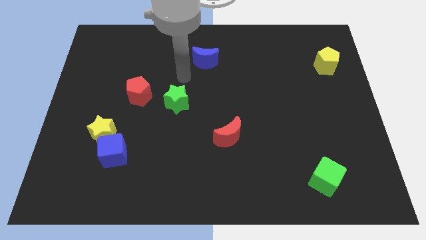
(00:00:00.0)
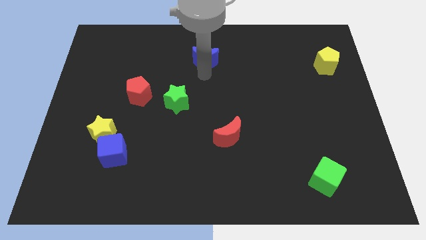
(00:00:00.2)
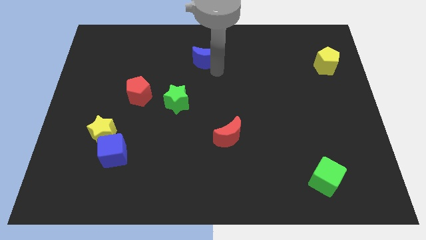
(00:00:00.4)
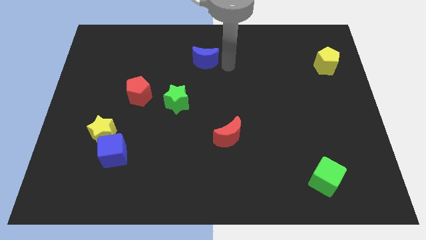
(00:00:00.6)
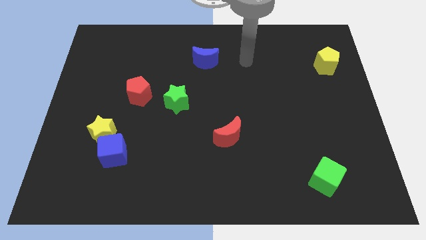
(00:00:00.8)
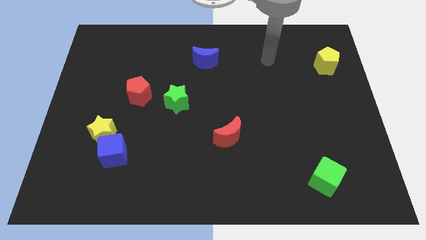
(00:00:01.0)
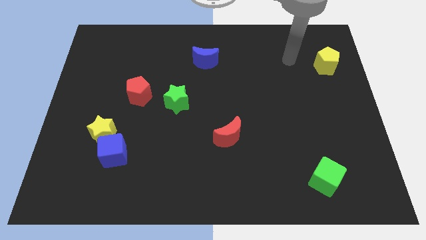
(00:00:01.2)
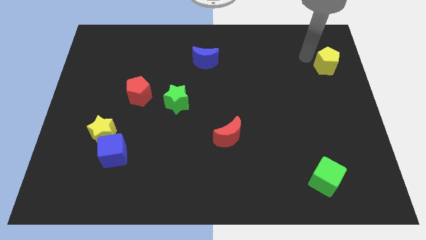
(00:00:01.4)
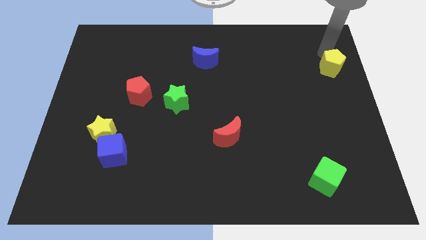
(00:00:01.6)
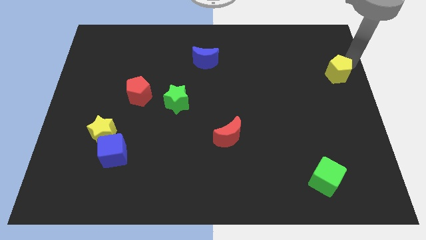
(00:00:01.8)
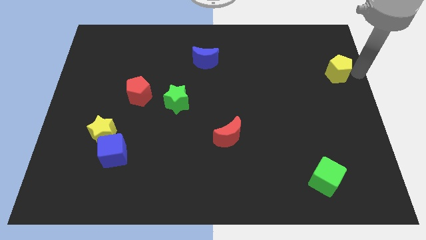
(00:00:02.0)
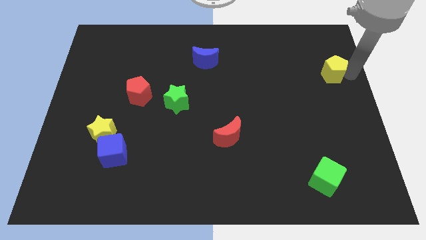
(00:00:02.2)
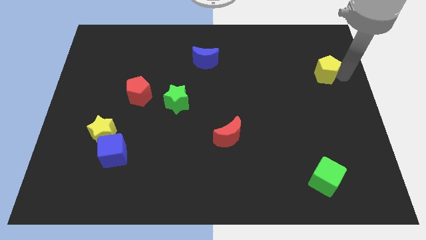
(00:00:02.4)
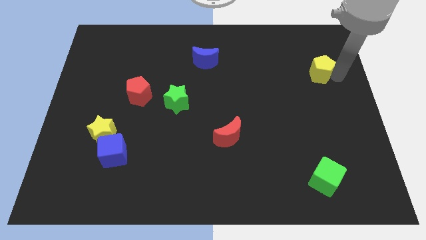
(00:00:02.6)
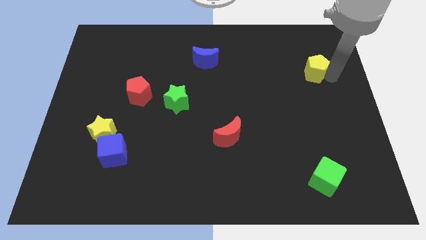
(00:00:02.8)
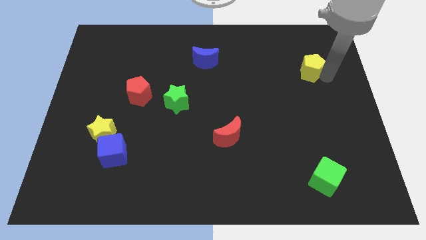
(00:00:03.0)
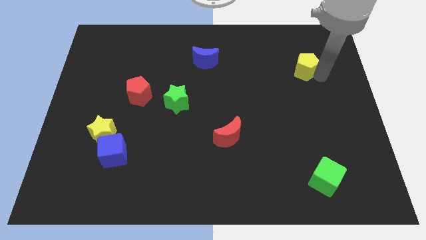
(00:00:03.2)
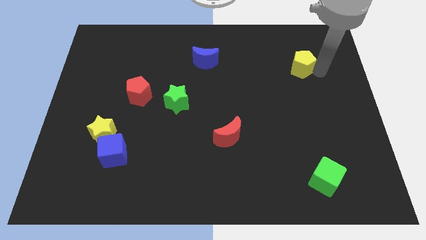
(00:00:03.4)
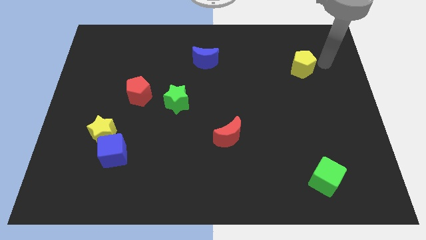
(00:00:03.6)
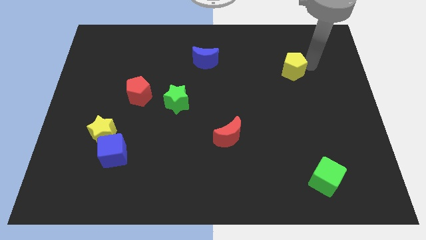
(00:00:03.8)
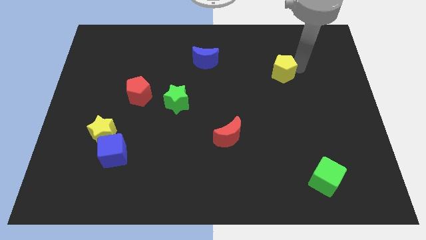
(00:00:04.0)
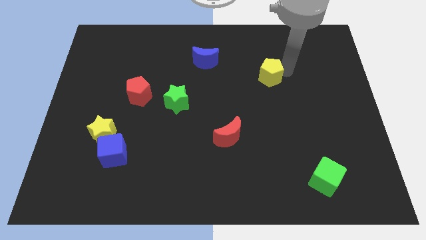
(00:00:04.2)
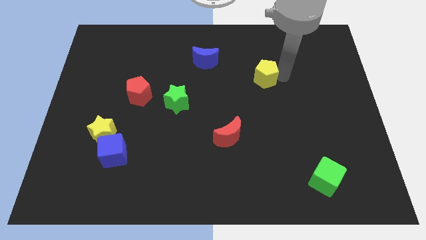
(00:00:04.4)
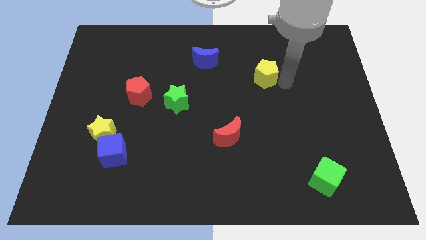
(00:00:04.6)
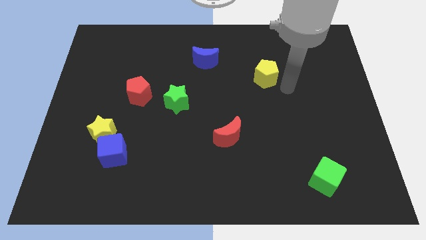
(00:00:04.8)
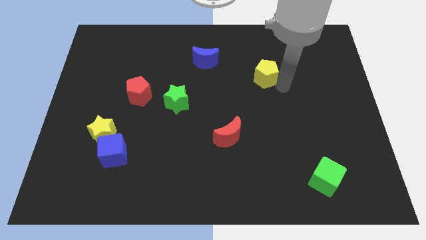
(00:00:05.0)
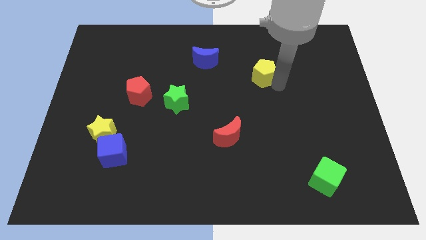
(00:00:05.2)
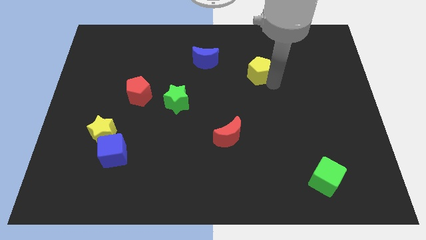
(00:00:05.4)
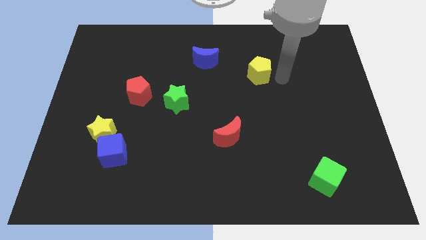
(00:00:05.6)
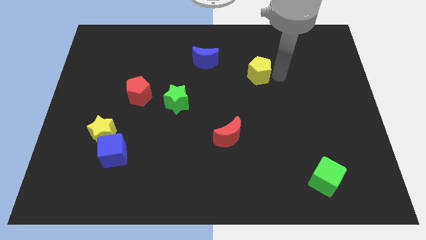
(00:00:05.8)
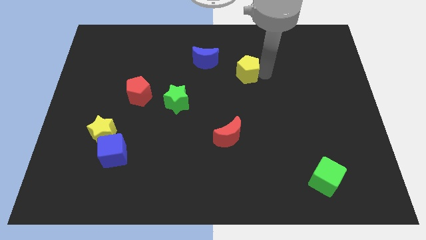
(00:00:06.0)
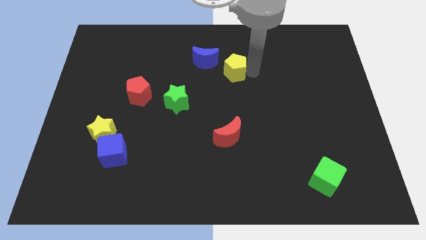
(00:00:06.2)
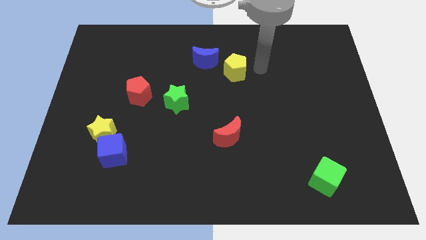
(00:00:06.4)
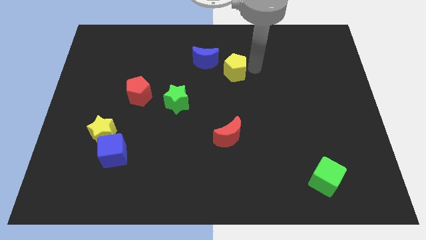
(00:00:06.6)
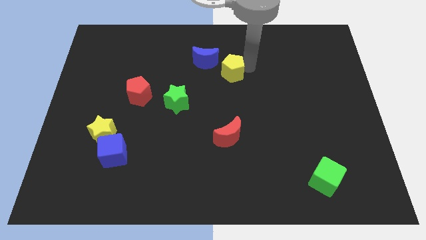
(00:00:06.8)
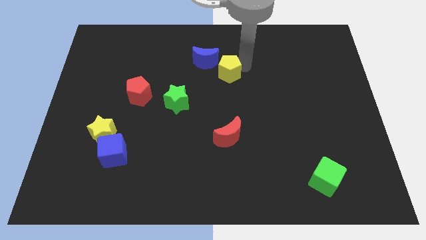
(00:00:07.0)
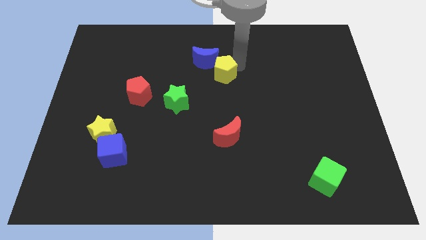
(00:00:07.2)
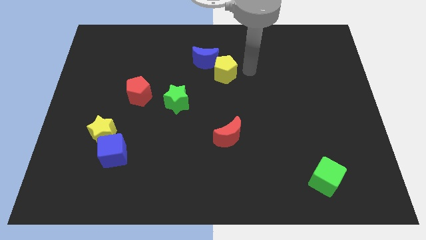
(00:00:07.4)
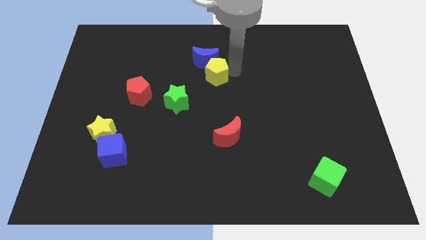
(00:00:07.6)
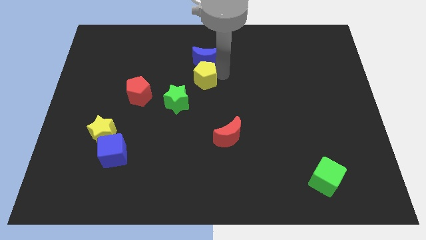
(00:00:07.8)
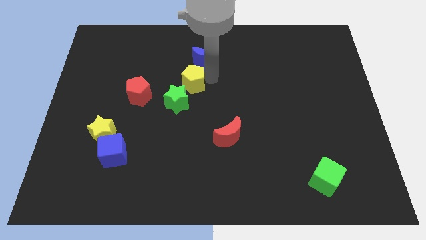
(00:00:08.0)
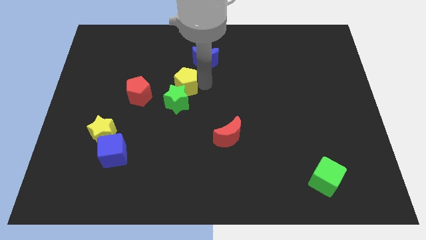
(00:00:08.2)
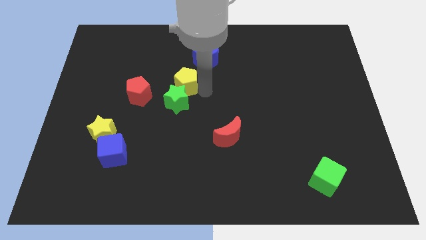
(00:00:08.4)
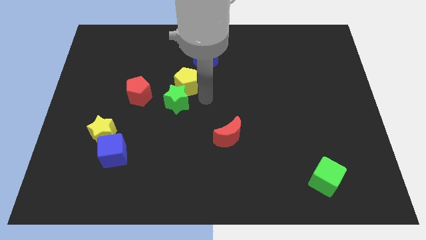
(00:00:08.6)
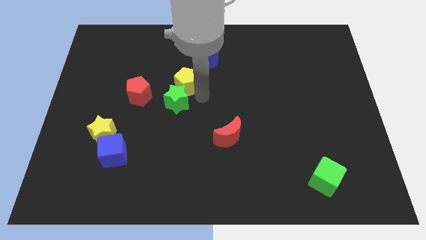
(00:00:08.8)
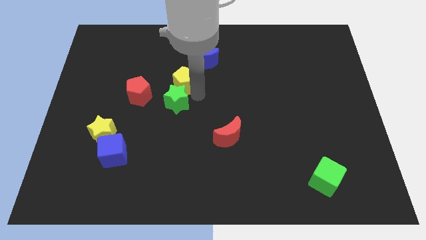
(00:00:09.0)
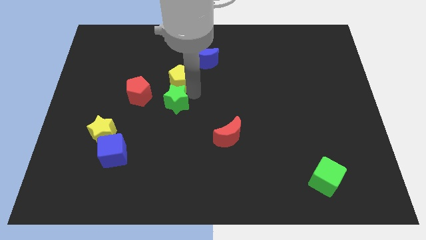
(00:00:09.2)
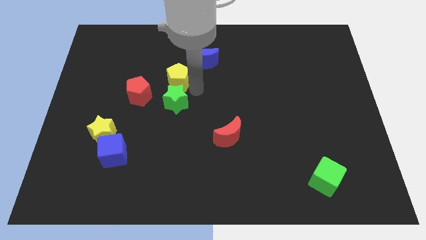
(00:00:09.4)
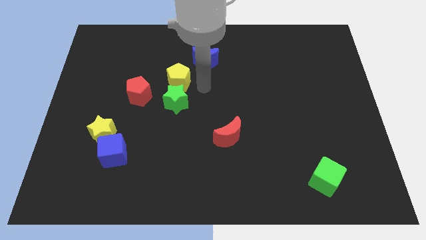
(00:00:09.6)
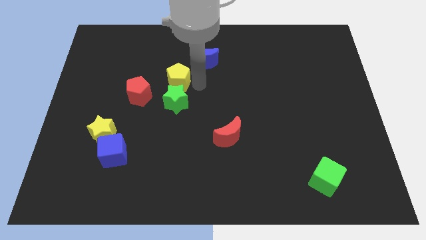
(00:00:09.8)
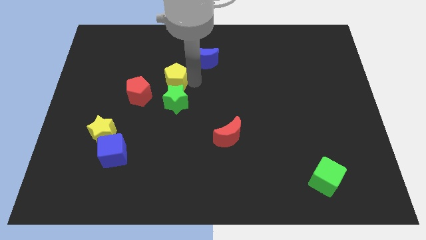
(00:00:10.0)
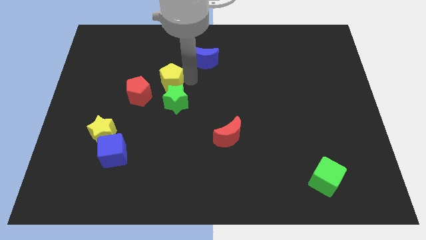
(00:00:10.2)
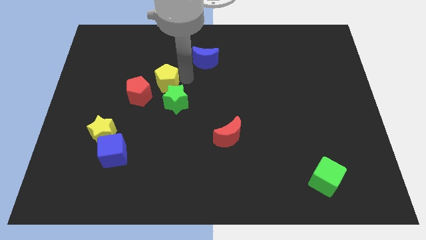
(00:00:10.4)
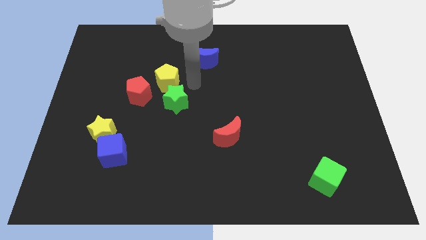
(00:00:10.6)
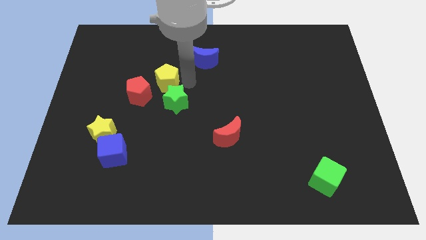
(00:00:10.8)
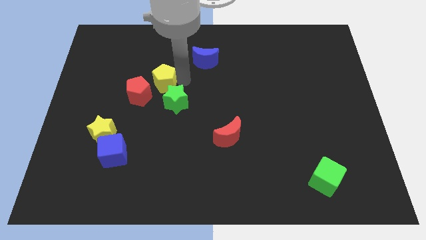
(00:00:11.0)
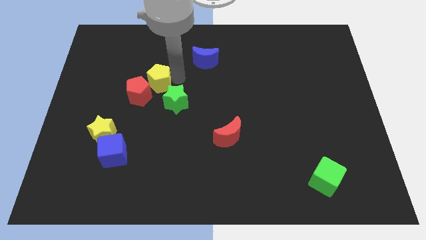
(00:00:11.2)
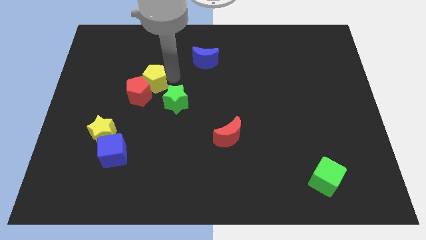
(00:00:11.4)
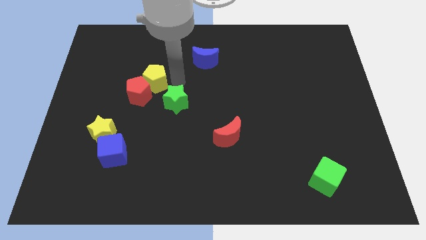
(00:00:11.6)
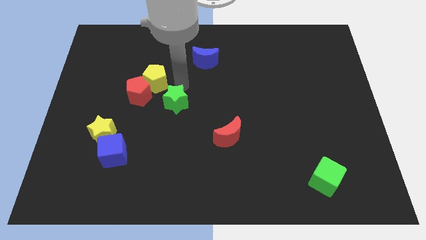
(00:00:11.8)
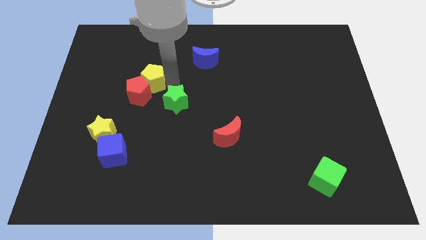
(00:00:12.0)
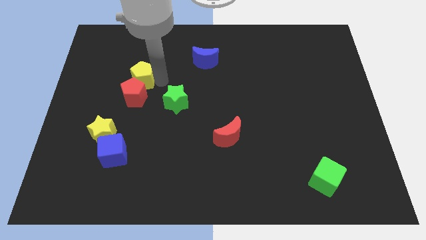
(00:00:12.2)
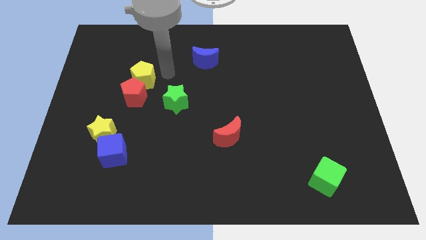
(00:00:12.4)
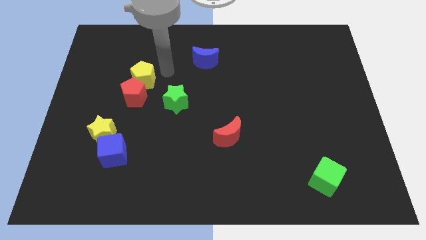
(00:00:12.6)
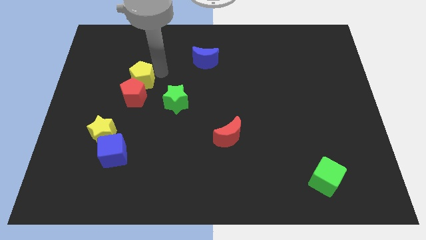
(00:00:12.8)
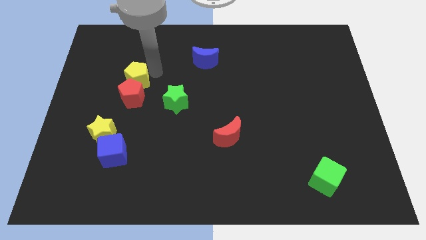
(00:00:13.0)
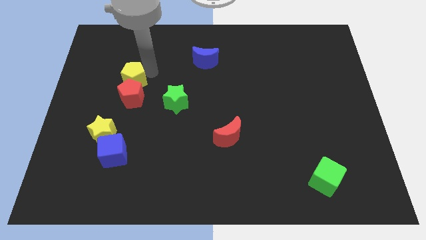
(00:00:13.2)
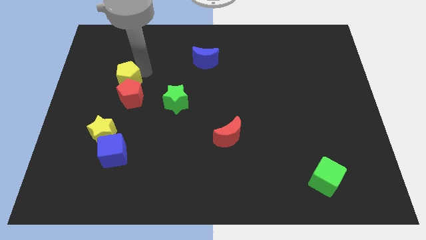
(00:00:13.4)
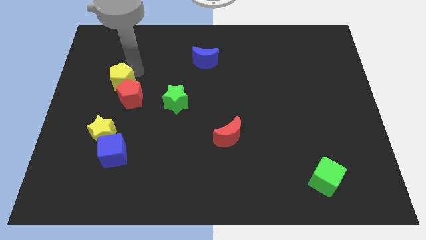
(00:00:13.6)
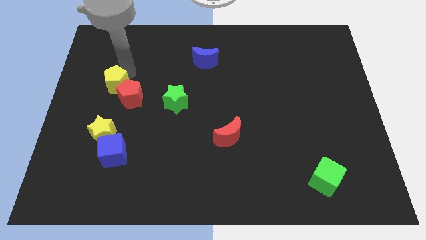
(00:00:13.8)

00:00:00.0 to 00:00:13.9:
slide the yellow pentagon left of the red pentagon
